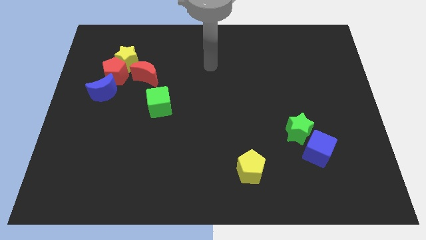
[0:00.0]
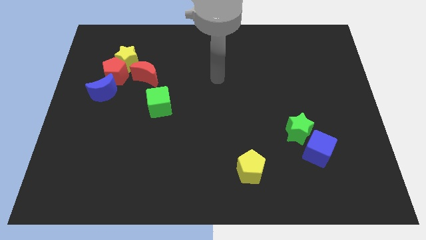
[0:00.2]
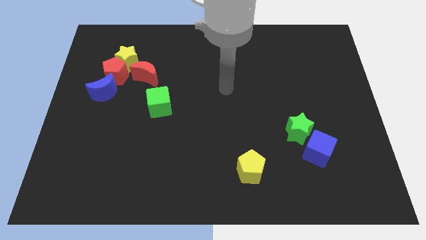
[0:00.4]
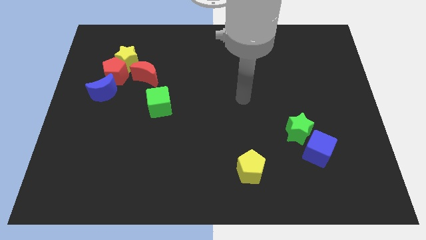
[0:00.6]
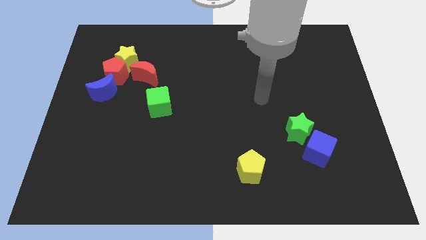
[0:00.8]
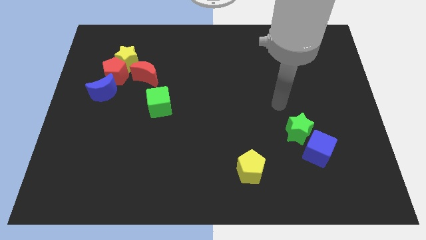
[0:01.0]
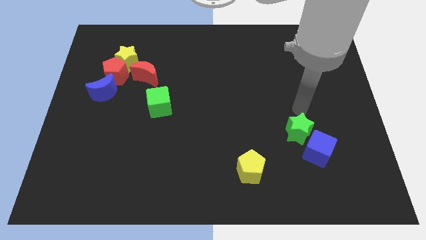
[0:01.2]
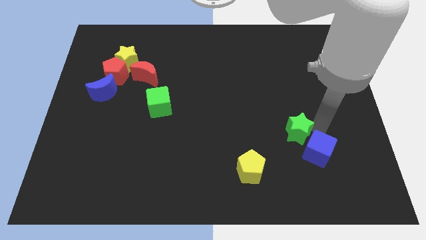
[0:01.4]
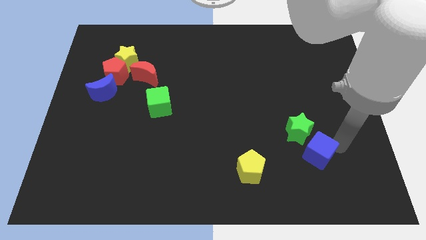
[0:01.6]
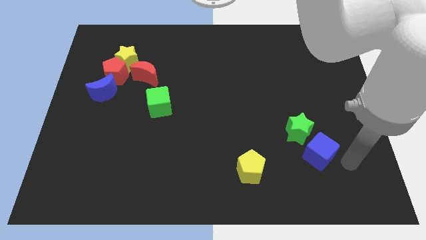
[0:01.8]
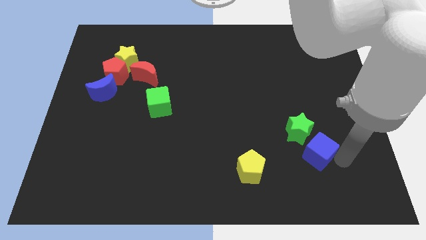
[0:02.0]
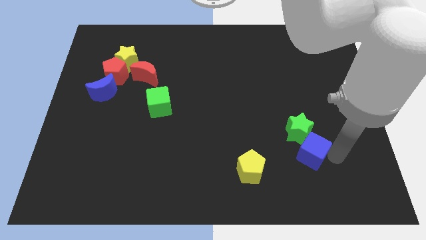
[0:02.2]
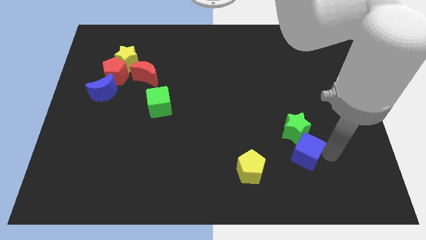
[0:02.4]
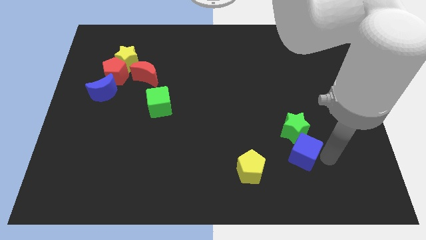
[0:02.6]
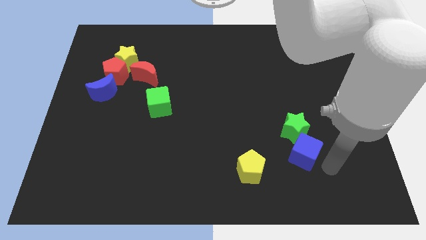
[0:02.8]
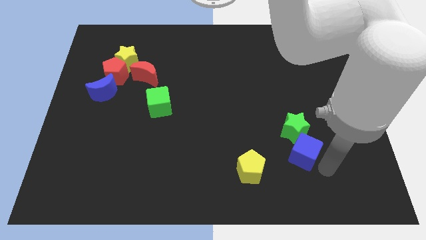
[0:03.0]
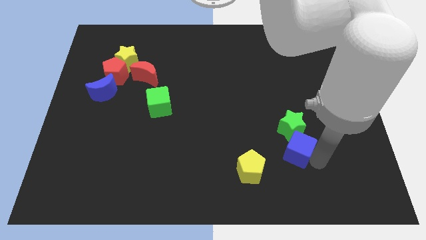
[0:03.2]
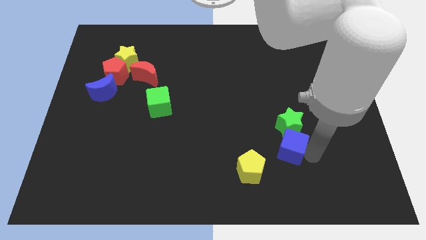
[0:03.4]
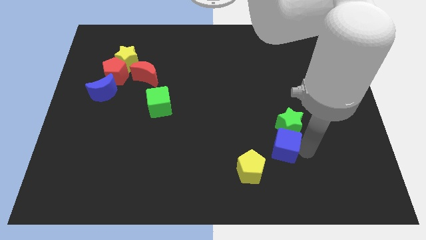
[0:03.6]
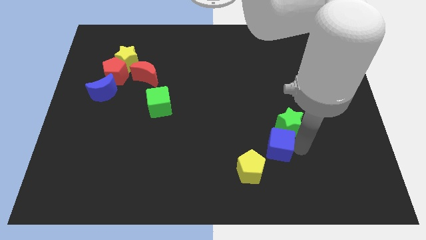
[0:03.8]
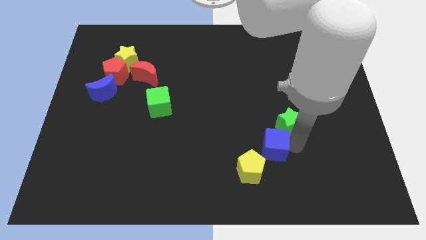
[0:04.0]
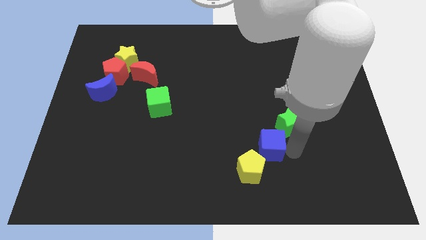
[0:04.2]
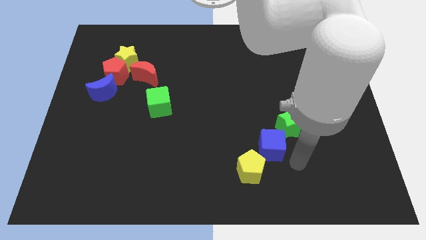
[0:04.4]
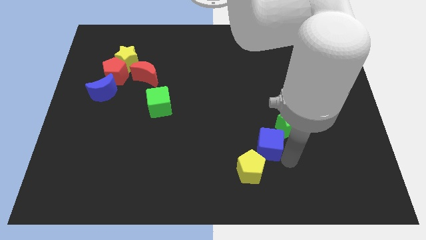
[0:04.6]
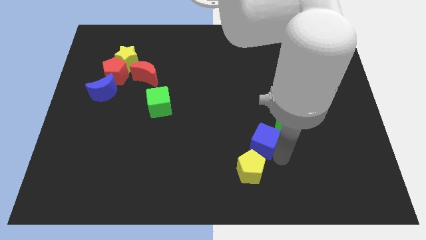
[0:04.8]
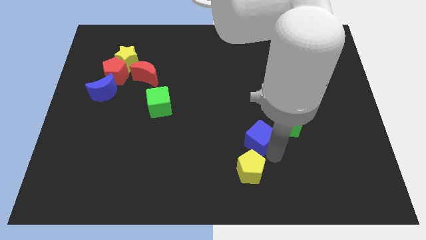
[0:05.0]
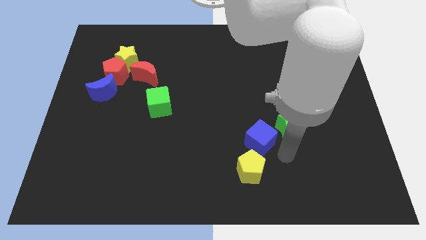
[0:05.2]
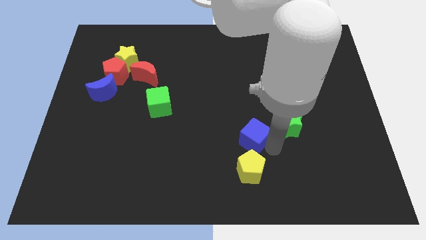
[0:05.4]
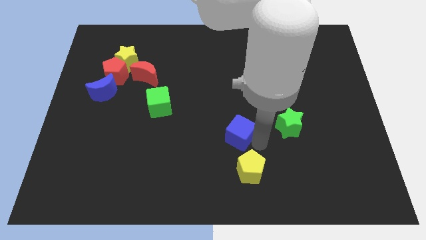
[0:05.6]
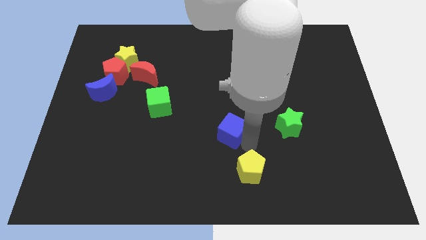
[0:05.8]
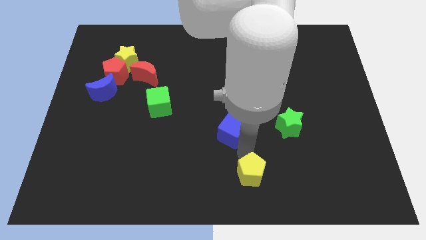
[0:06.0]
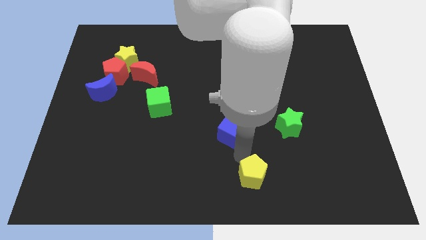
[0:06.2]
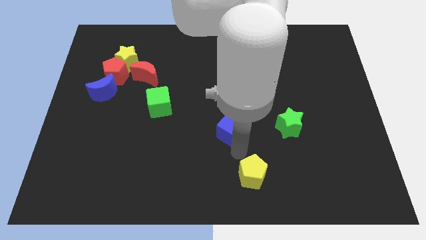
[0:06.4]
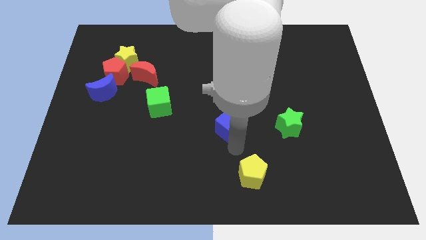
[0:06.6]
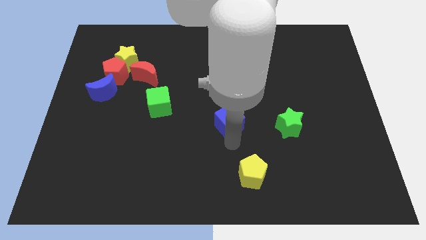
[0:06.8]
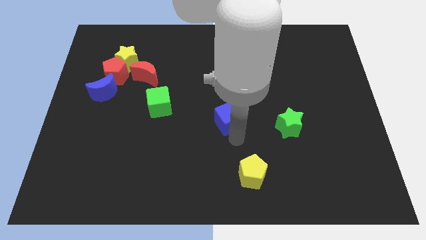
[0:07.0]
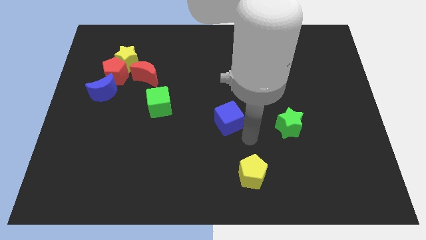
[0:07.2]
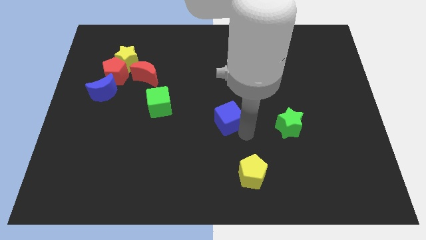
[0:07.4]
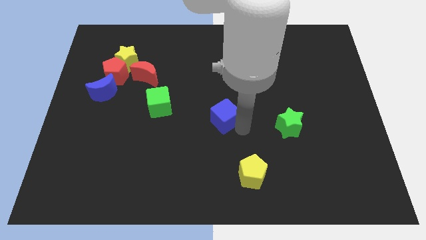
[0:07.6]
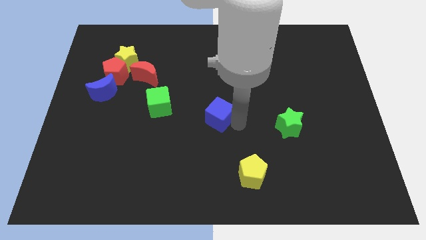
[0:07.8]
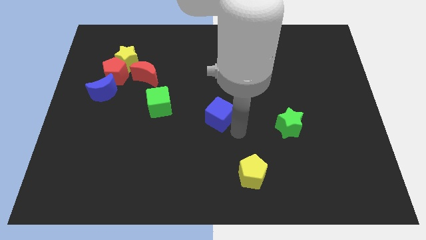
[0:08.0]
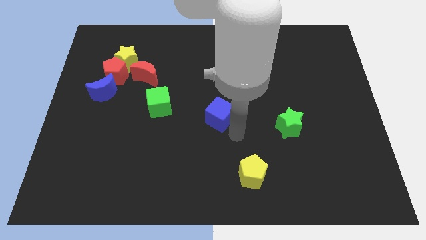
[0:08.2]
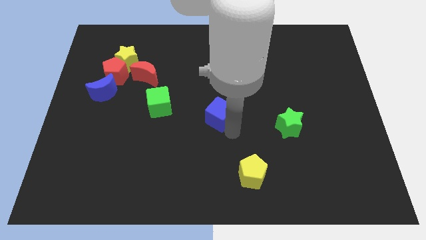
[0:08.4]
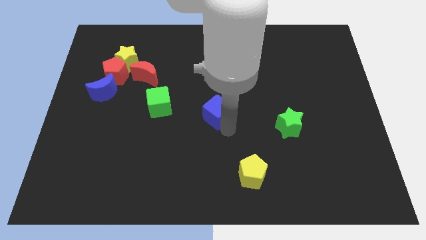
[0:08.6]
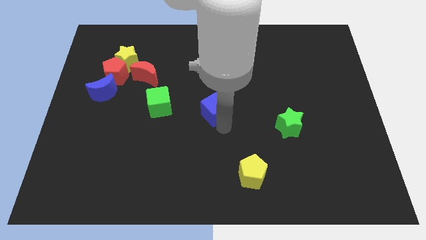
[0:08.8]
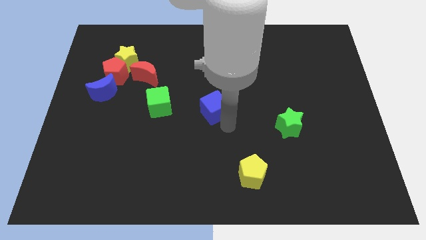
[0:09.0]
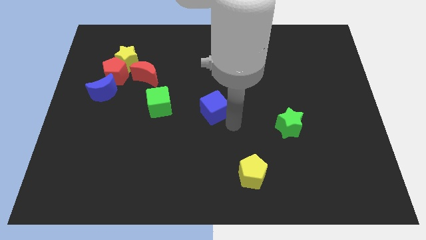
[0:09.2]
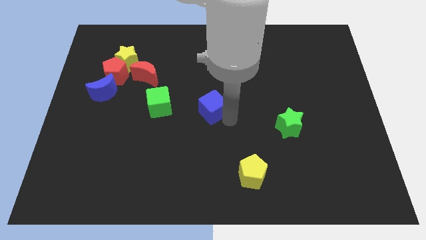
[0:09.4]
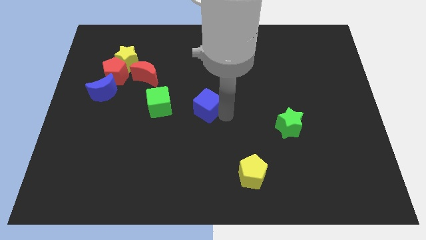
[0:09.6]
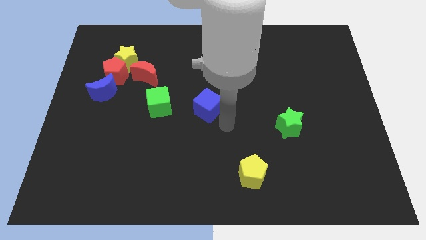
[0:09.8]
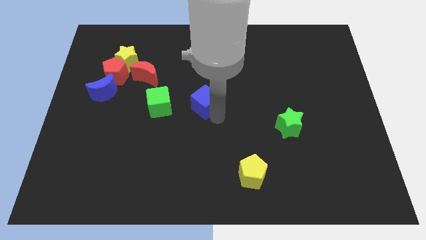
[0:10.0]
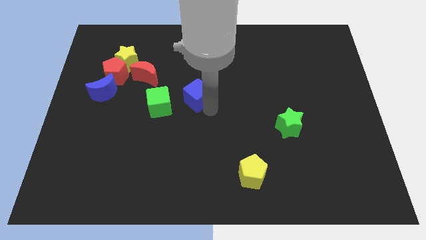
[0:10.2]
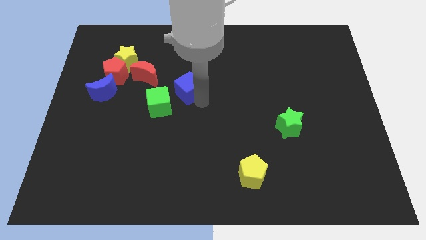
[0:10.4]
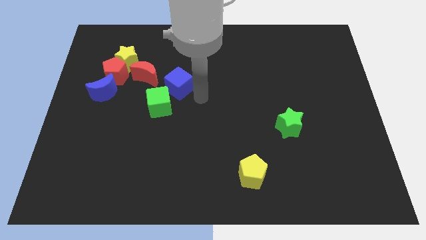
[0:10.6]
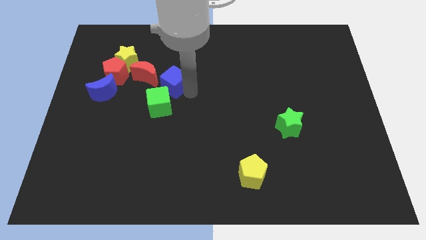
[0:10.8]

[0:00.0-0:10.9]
move the blue cube just right of the red pentagon

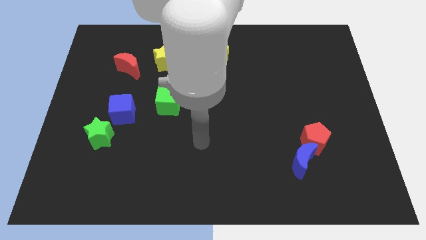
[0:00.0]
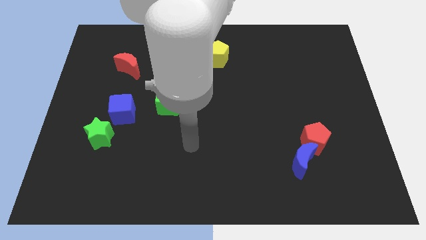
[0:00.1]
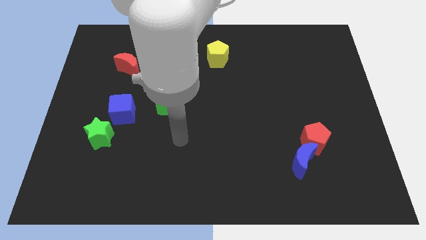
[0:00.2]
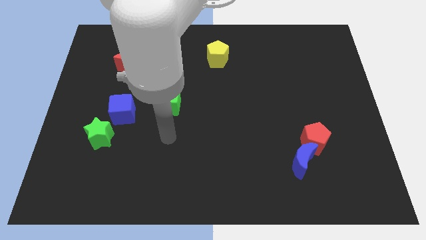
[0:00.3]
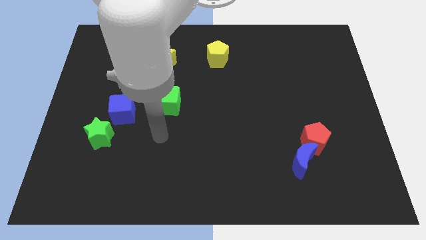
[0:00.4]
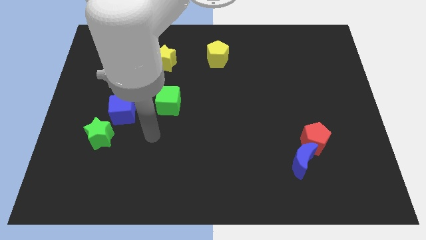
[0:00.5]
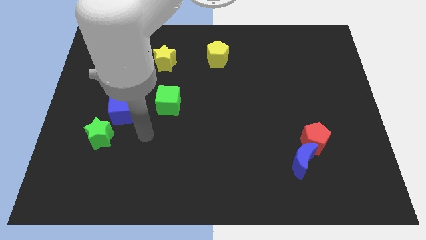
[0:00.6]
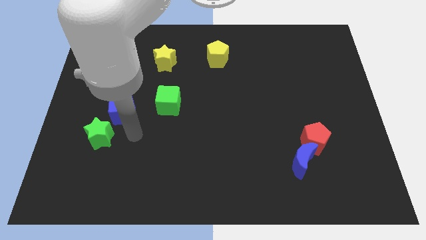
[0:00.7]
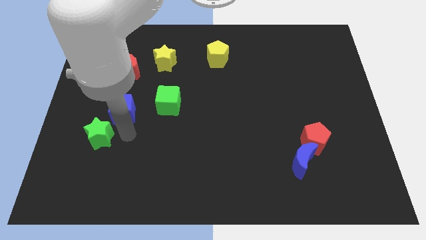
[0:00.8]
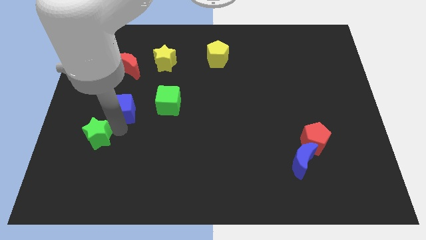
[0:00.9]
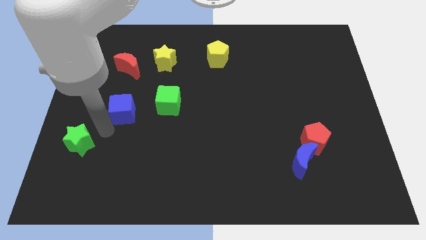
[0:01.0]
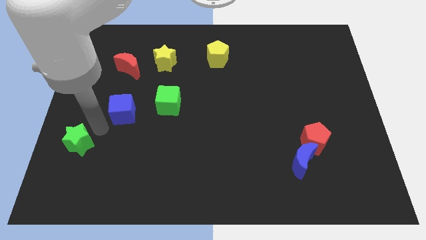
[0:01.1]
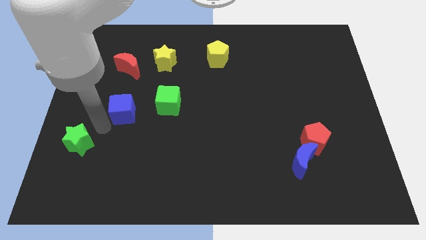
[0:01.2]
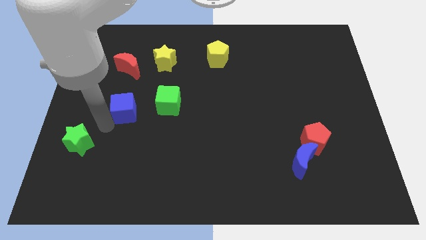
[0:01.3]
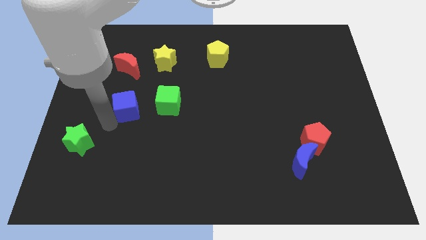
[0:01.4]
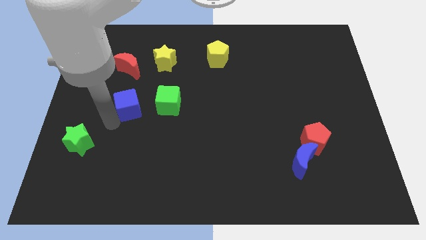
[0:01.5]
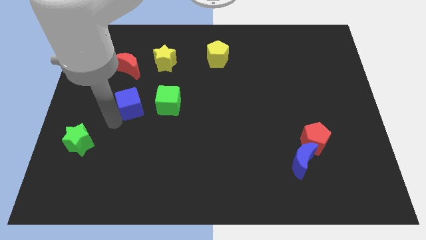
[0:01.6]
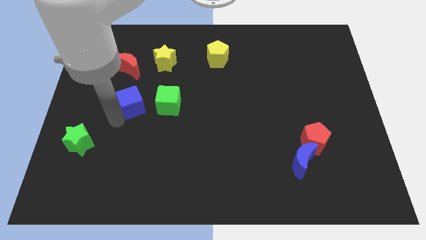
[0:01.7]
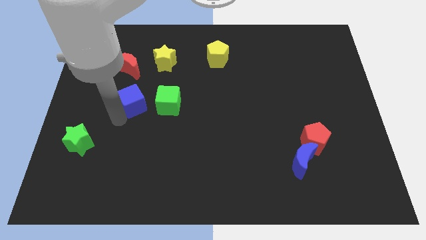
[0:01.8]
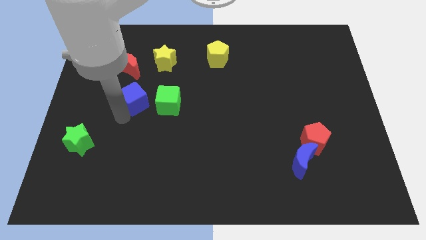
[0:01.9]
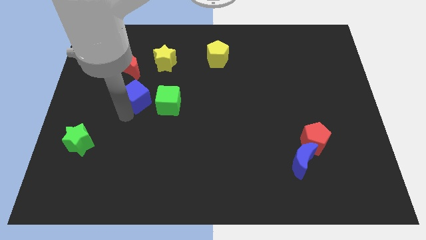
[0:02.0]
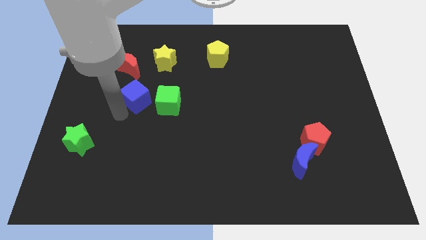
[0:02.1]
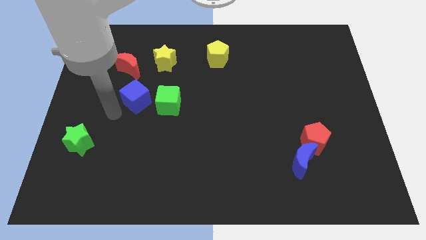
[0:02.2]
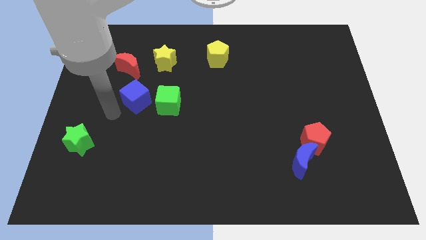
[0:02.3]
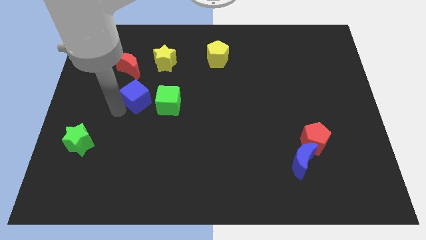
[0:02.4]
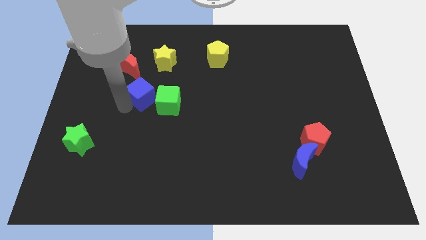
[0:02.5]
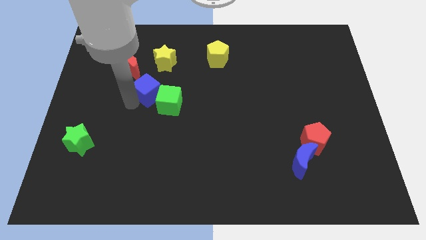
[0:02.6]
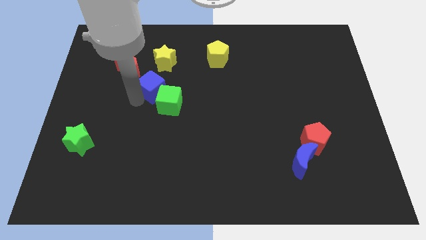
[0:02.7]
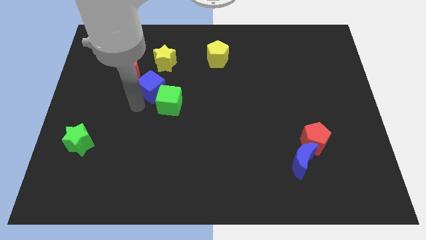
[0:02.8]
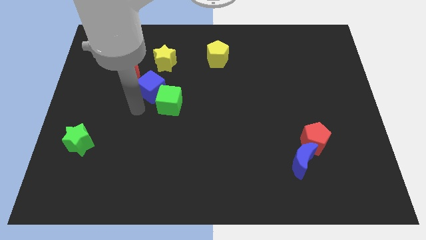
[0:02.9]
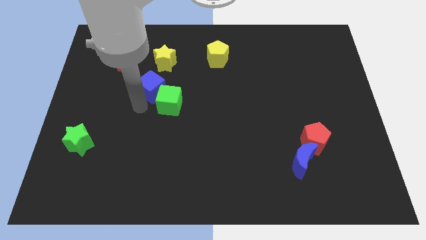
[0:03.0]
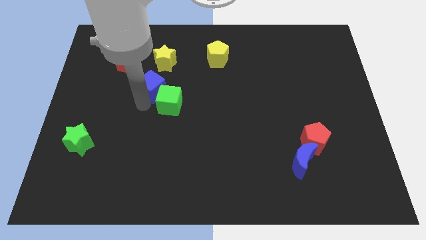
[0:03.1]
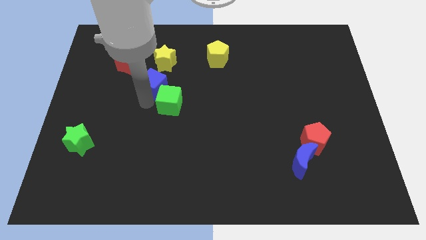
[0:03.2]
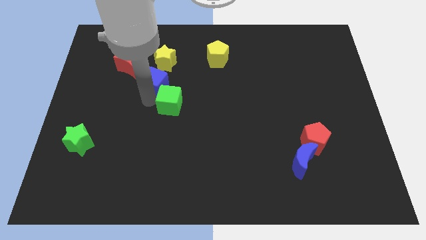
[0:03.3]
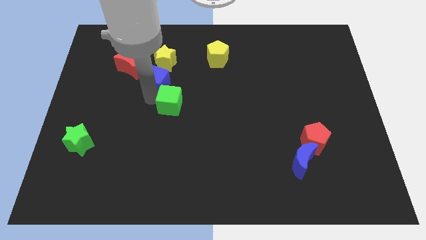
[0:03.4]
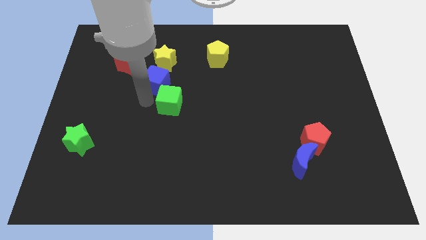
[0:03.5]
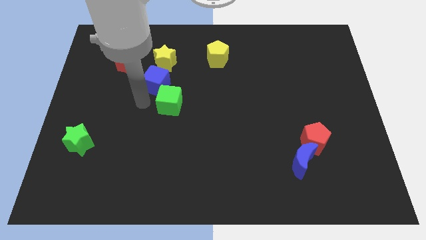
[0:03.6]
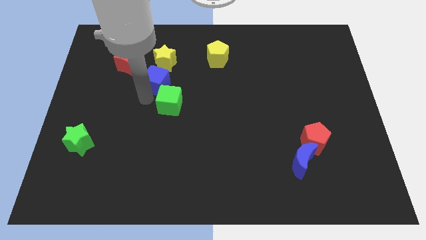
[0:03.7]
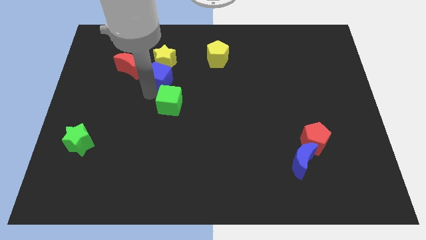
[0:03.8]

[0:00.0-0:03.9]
put the blue cube to the right side of the red moon
